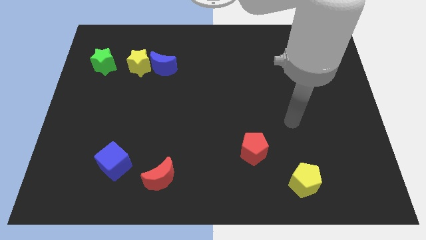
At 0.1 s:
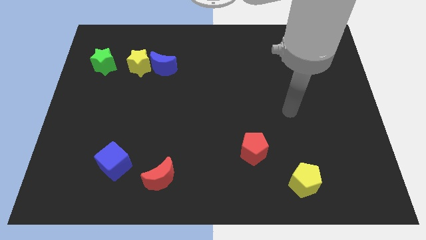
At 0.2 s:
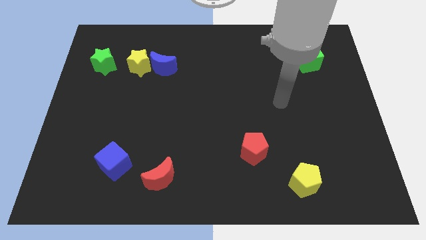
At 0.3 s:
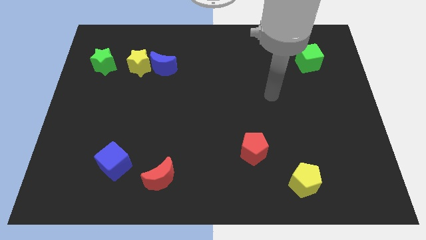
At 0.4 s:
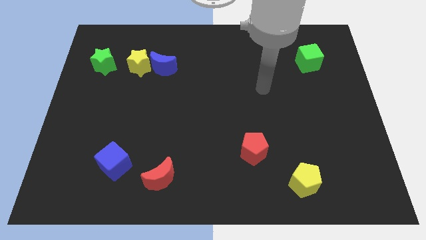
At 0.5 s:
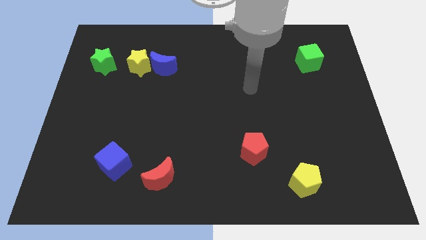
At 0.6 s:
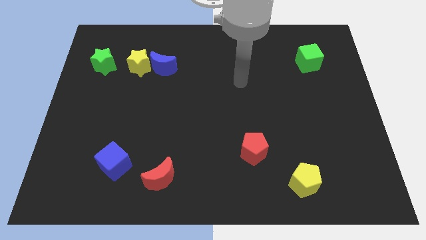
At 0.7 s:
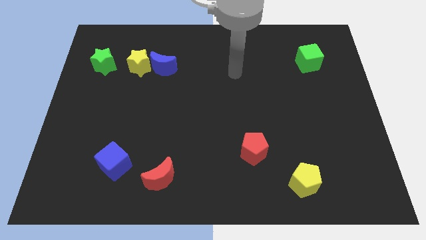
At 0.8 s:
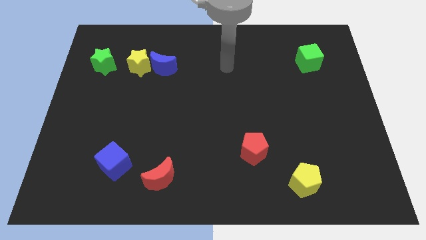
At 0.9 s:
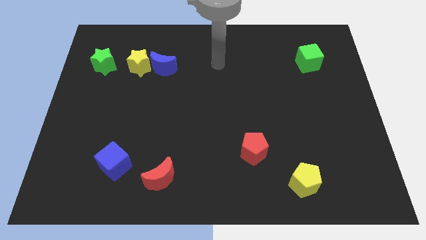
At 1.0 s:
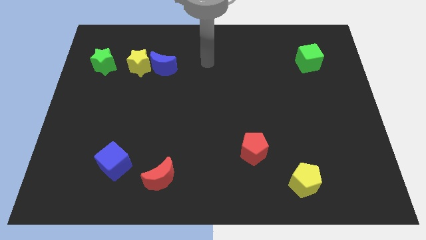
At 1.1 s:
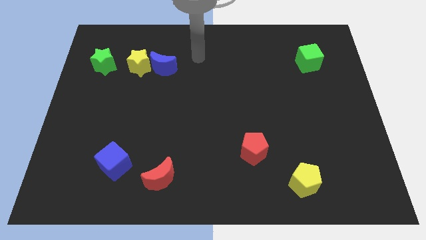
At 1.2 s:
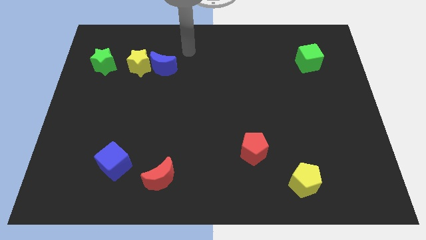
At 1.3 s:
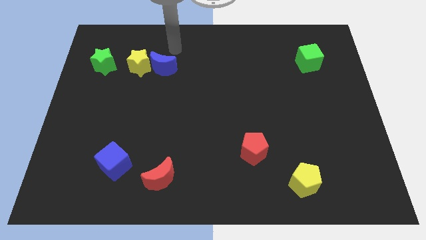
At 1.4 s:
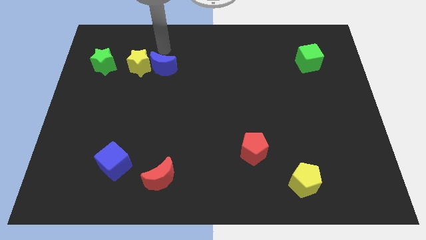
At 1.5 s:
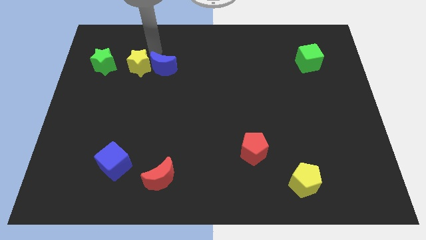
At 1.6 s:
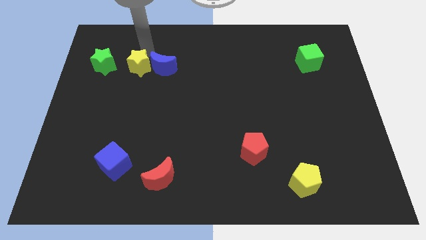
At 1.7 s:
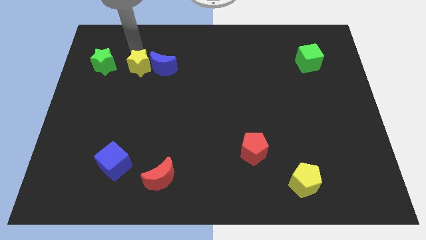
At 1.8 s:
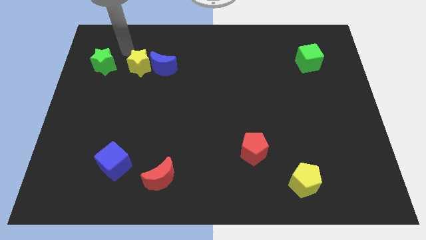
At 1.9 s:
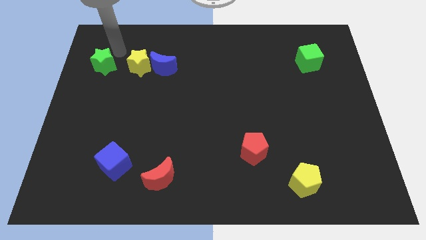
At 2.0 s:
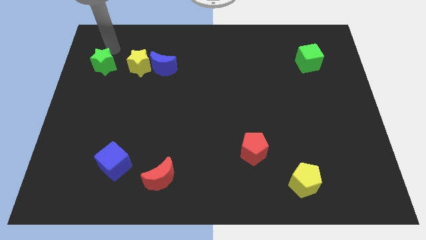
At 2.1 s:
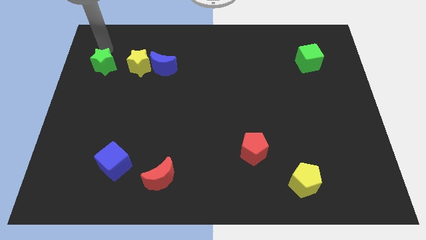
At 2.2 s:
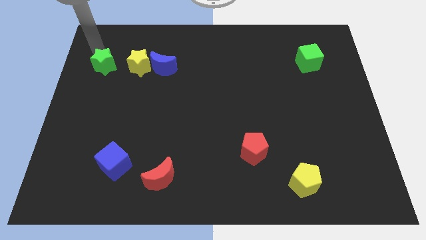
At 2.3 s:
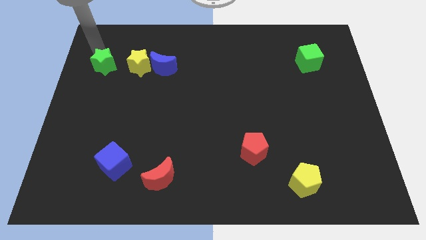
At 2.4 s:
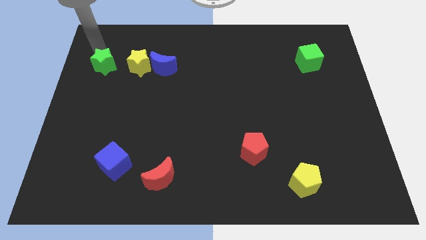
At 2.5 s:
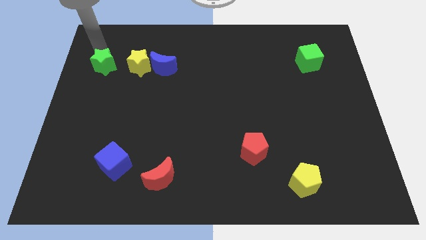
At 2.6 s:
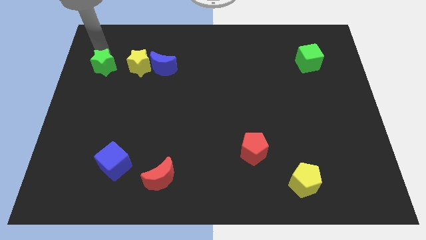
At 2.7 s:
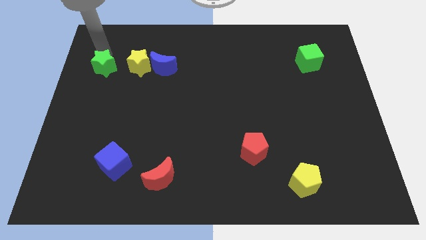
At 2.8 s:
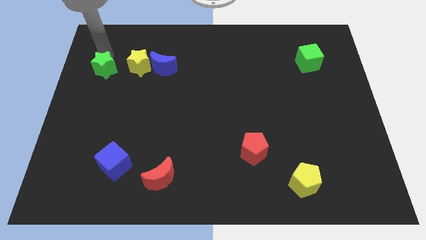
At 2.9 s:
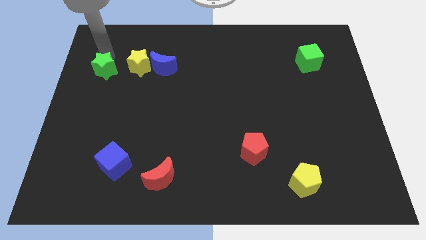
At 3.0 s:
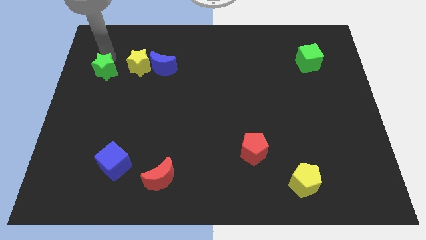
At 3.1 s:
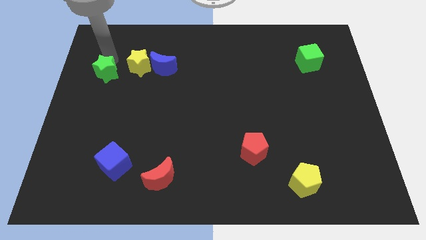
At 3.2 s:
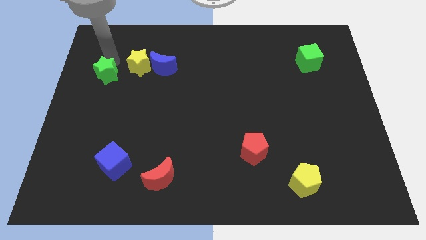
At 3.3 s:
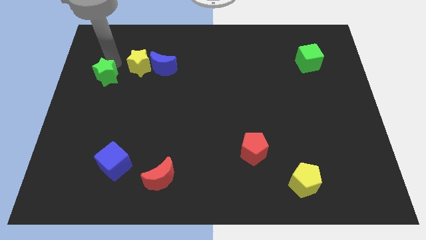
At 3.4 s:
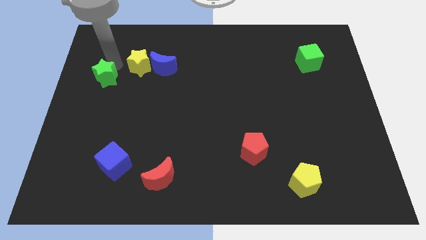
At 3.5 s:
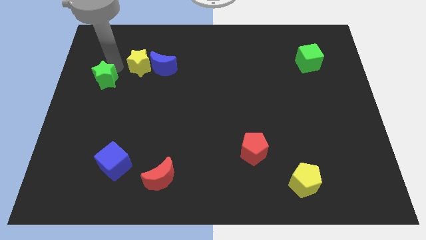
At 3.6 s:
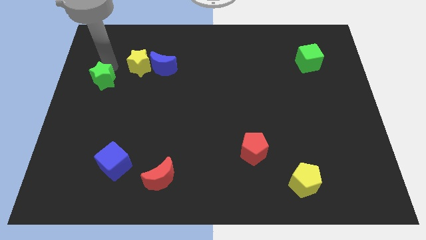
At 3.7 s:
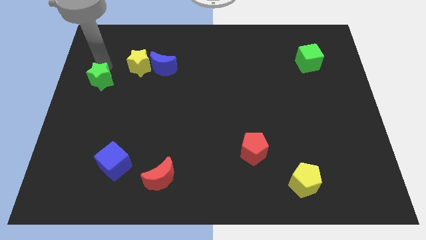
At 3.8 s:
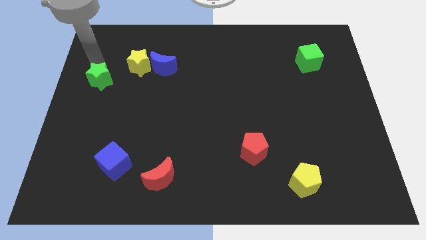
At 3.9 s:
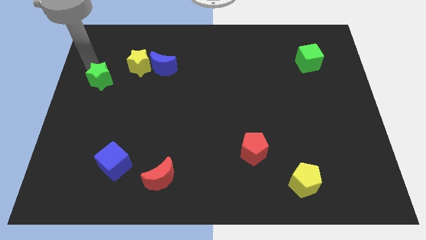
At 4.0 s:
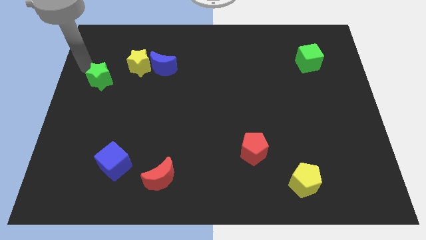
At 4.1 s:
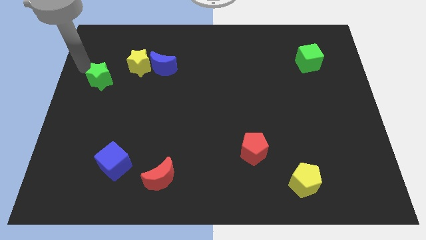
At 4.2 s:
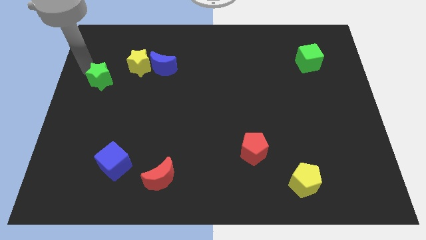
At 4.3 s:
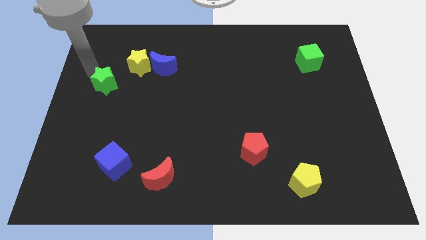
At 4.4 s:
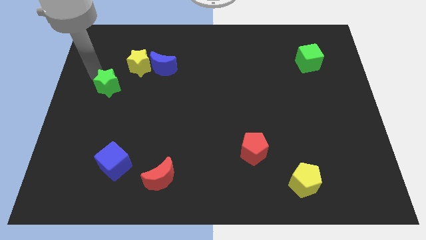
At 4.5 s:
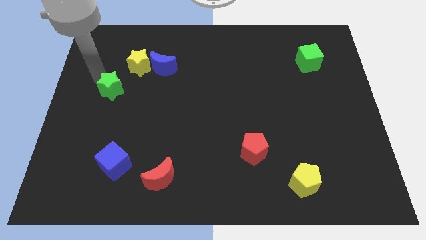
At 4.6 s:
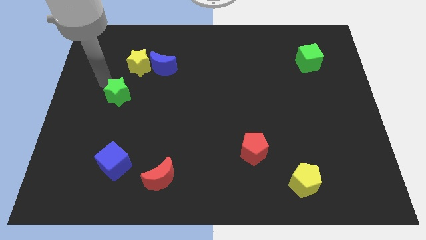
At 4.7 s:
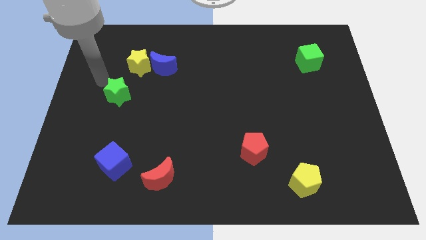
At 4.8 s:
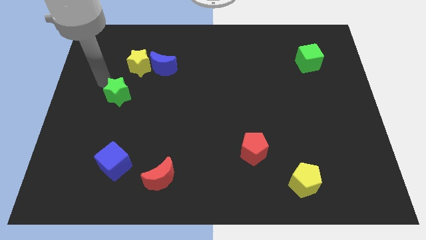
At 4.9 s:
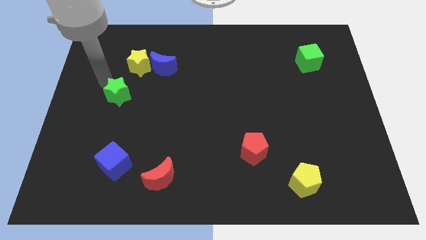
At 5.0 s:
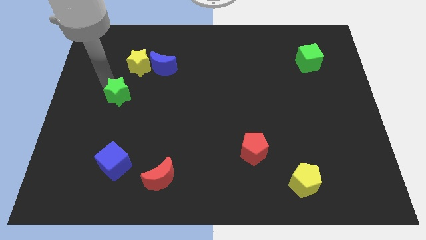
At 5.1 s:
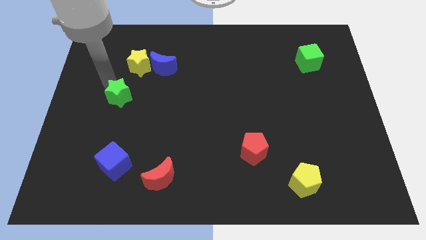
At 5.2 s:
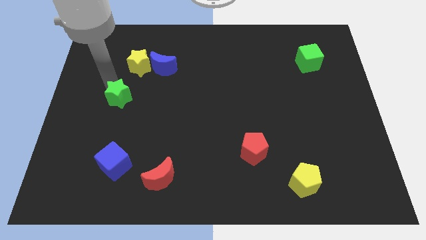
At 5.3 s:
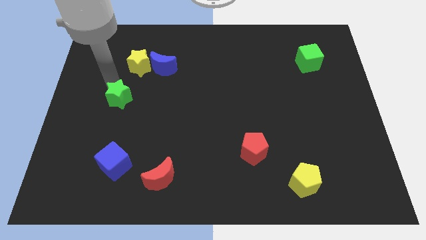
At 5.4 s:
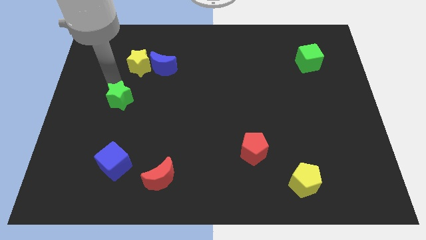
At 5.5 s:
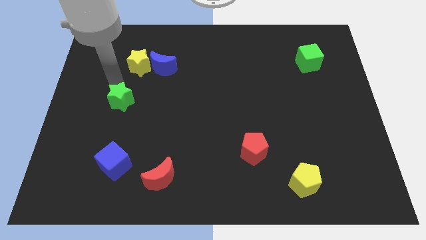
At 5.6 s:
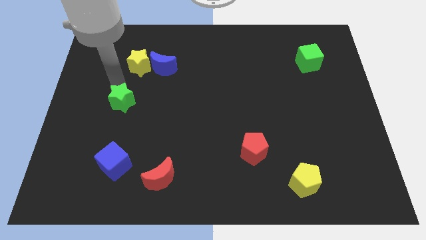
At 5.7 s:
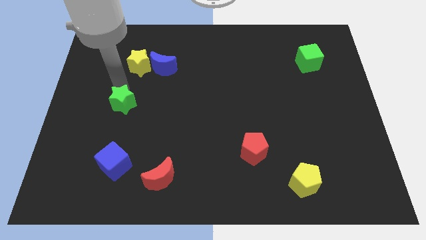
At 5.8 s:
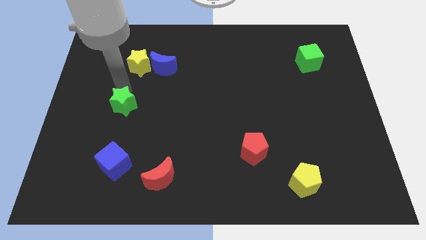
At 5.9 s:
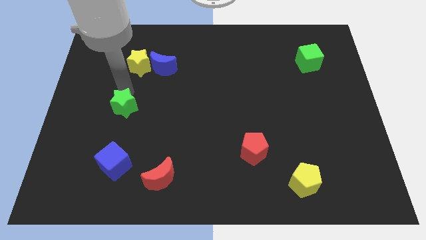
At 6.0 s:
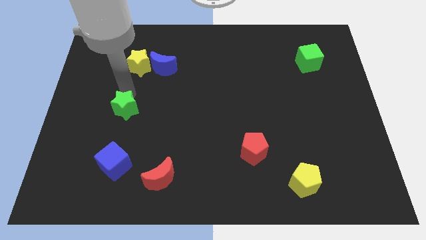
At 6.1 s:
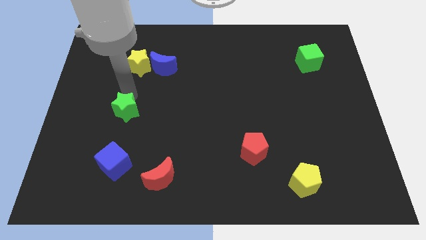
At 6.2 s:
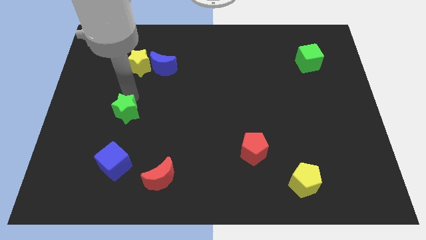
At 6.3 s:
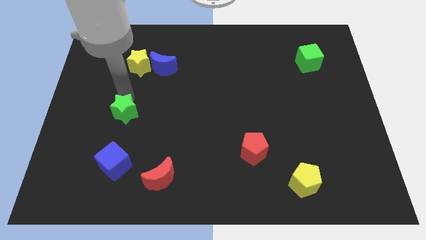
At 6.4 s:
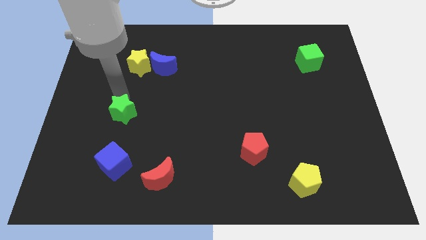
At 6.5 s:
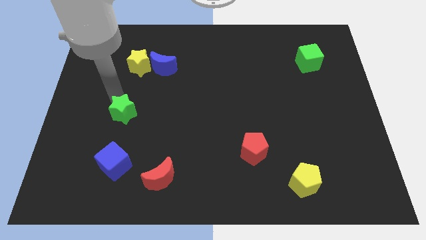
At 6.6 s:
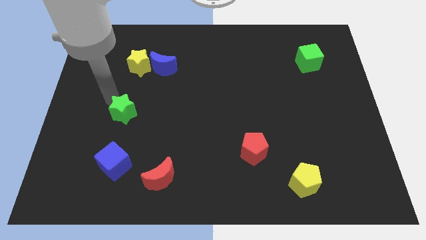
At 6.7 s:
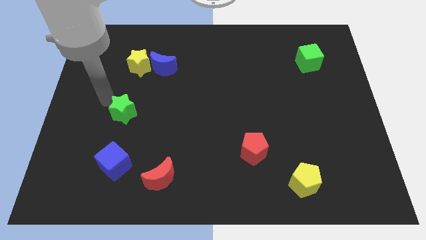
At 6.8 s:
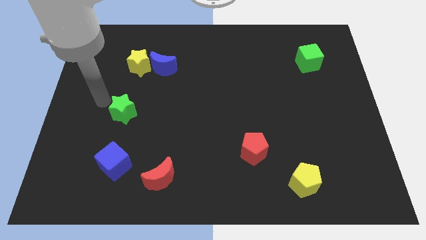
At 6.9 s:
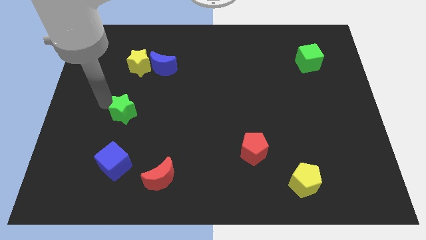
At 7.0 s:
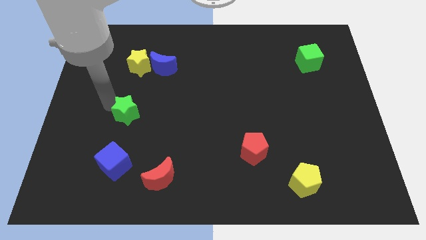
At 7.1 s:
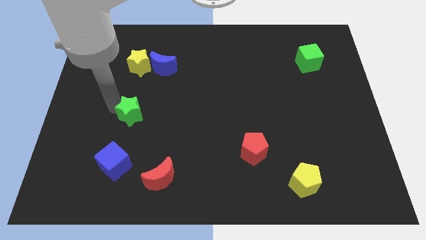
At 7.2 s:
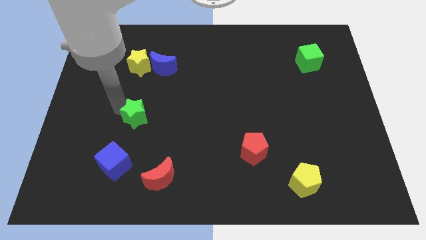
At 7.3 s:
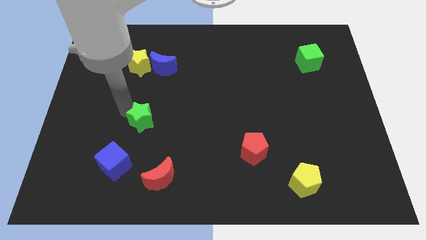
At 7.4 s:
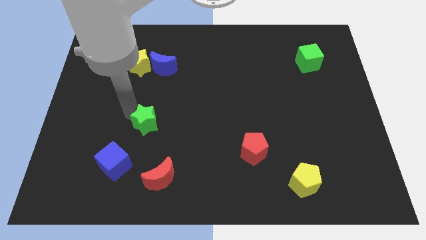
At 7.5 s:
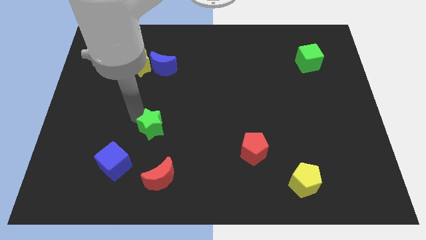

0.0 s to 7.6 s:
move the green star to the top of the red moon
